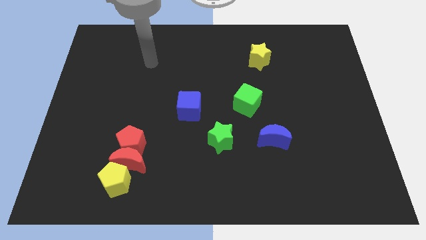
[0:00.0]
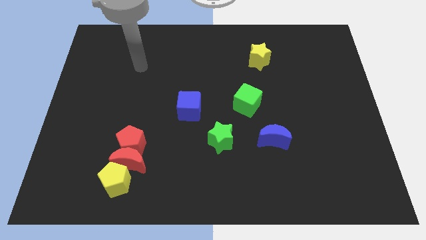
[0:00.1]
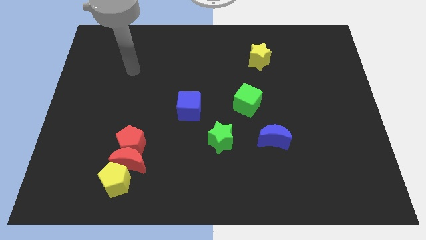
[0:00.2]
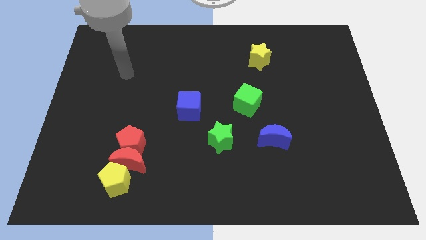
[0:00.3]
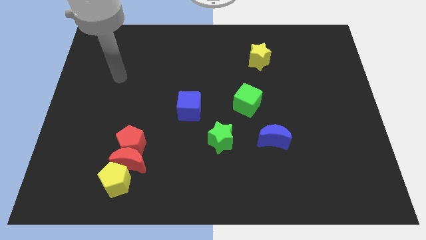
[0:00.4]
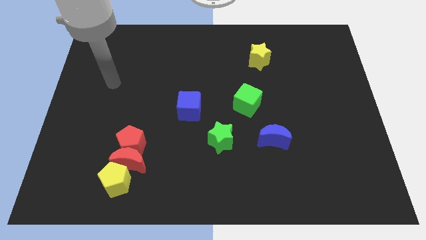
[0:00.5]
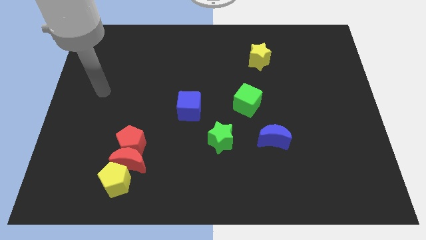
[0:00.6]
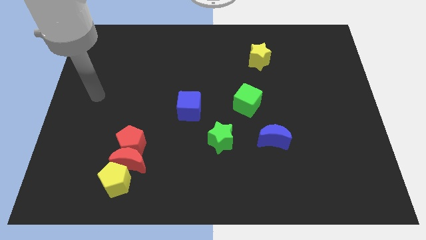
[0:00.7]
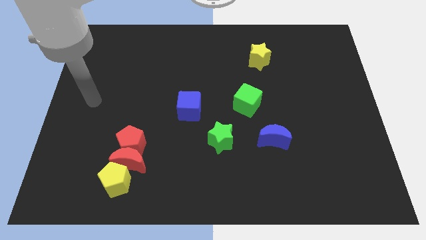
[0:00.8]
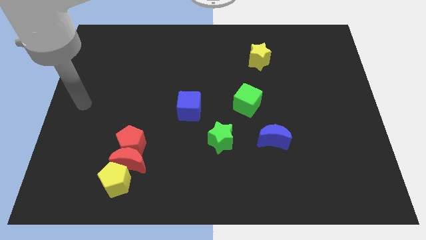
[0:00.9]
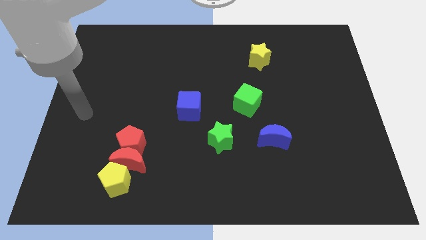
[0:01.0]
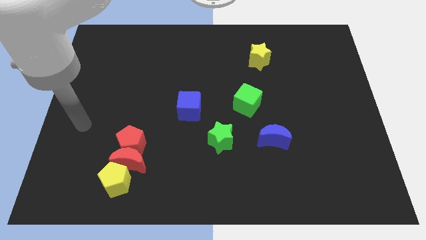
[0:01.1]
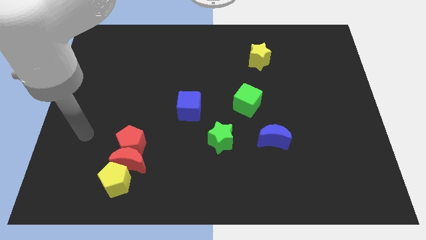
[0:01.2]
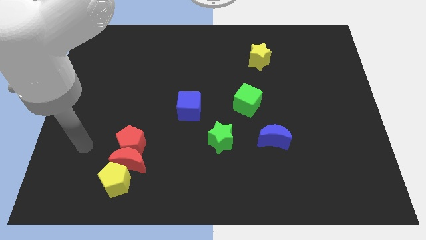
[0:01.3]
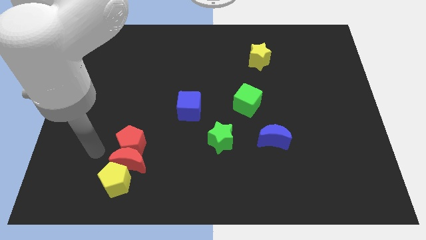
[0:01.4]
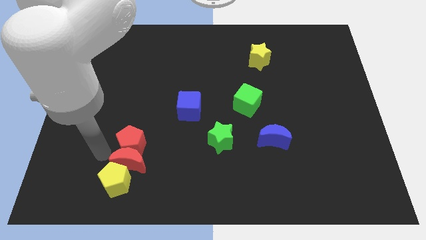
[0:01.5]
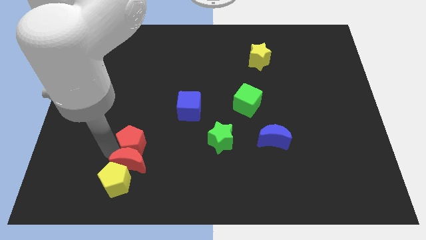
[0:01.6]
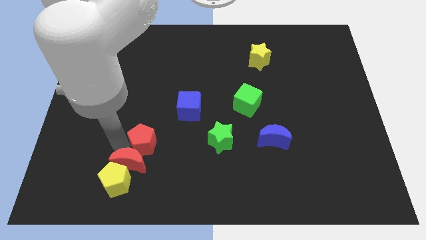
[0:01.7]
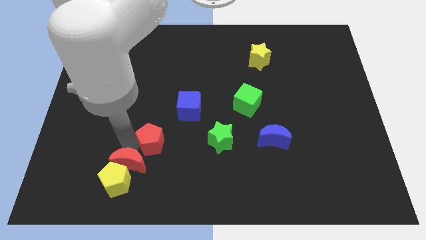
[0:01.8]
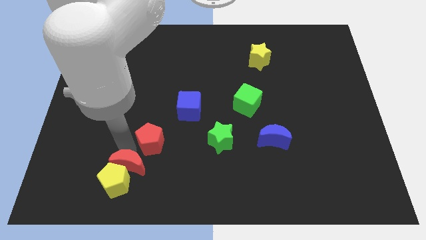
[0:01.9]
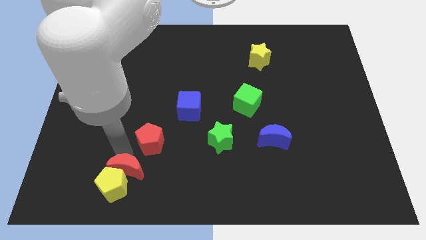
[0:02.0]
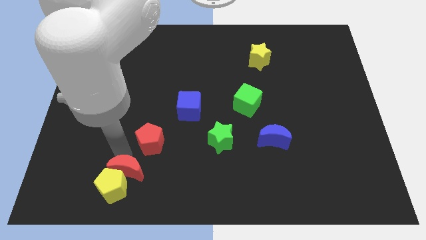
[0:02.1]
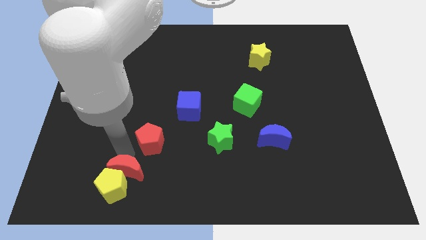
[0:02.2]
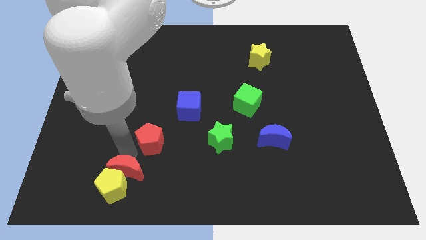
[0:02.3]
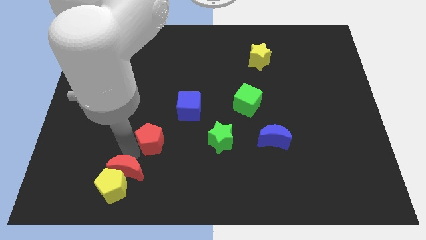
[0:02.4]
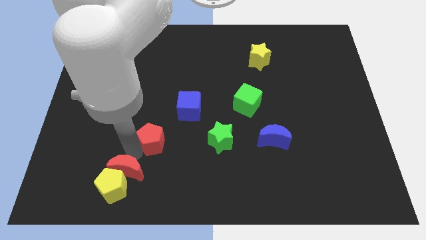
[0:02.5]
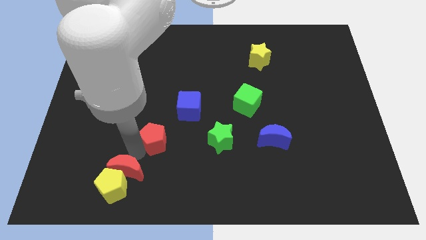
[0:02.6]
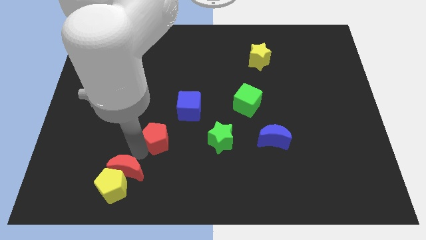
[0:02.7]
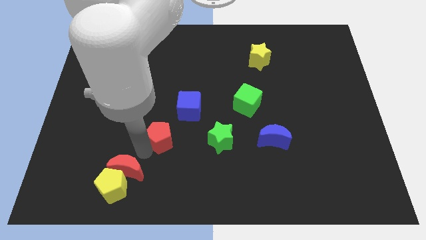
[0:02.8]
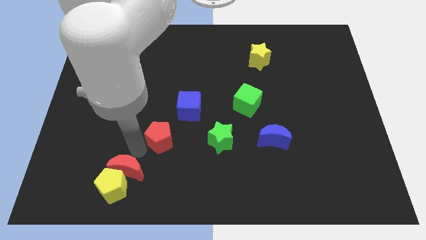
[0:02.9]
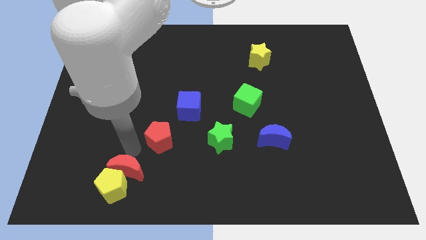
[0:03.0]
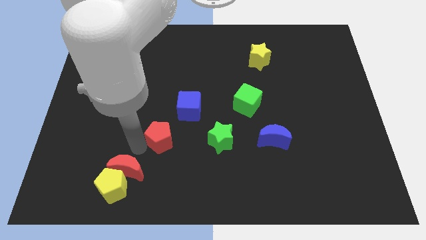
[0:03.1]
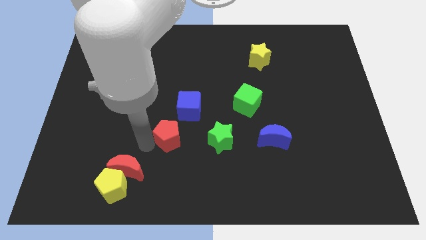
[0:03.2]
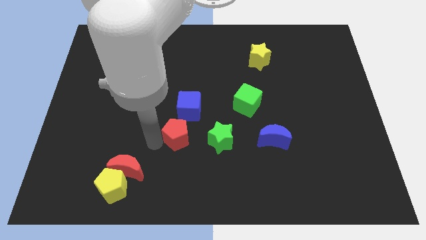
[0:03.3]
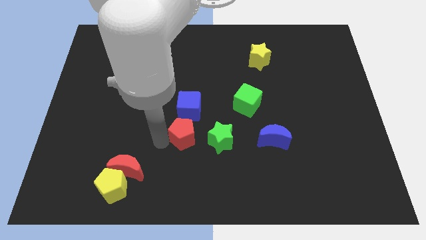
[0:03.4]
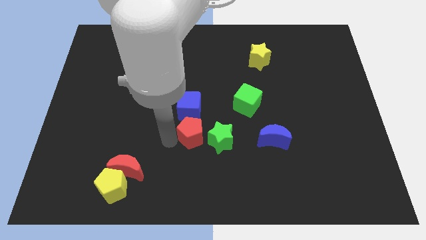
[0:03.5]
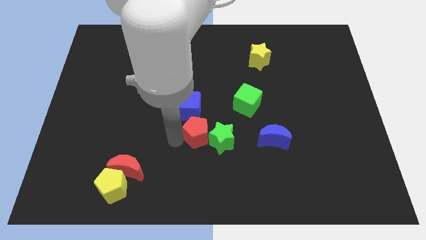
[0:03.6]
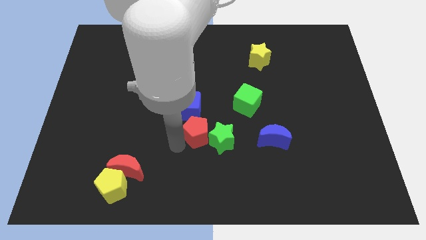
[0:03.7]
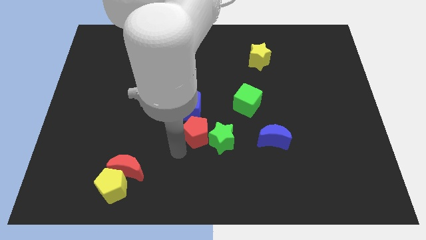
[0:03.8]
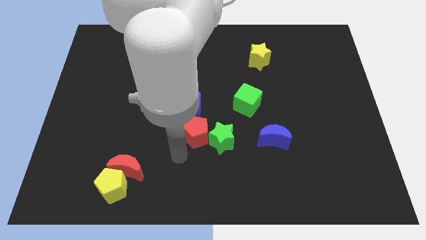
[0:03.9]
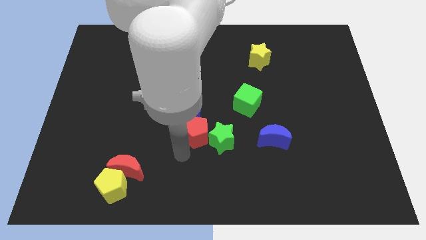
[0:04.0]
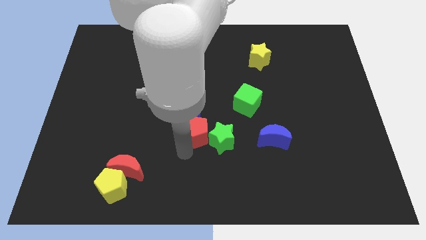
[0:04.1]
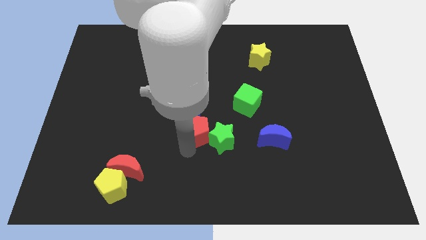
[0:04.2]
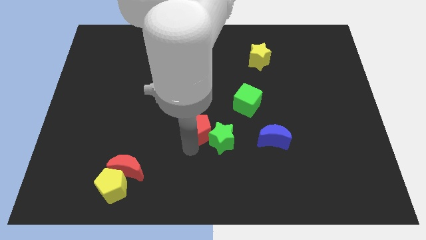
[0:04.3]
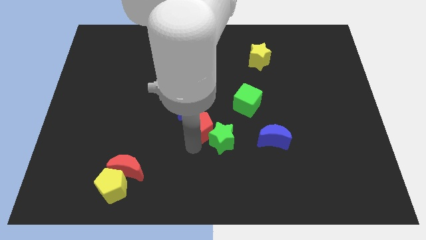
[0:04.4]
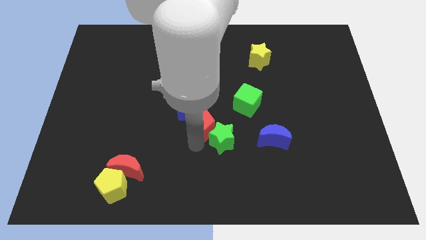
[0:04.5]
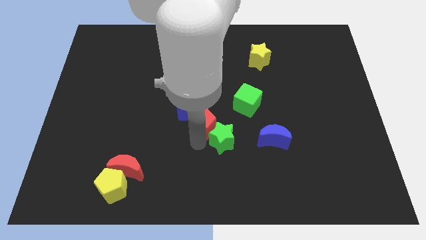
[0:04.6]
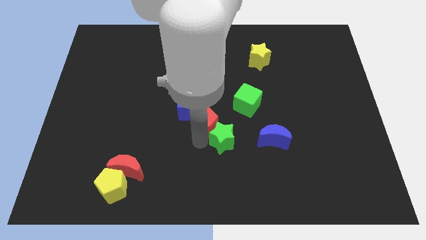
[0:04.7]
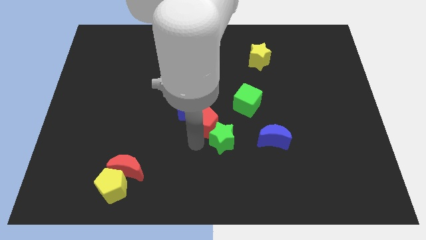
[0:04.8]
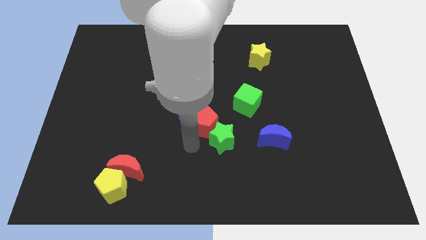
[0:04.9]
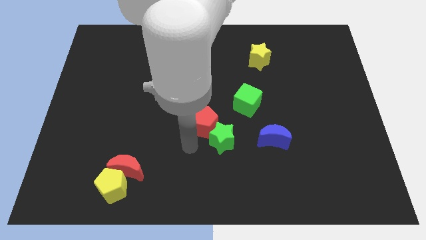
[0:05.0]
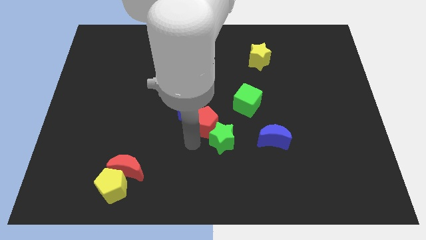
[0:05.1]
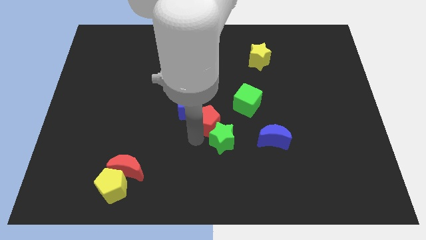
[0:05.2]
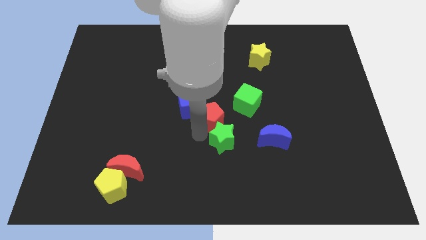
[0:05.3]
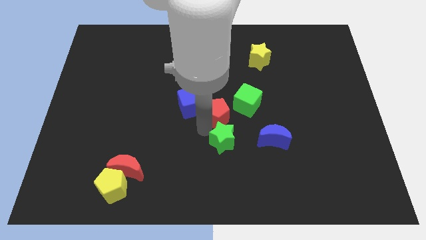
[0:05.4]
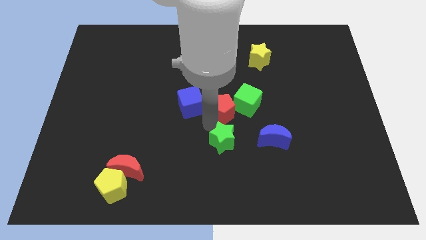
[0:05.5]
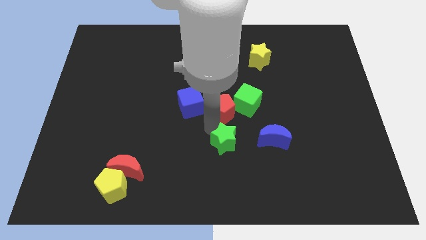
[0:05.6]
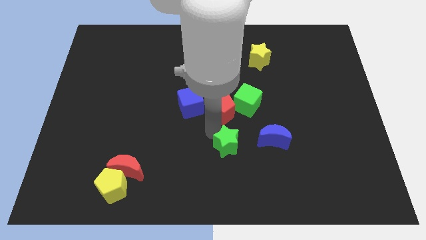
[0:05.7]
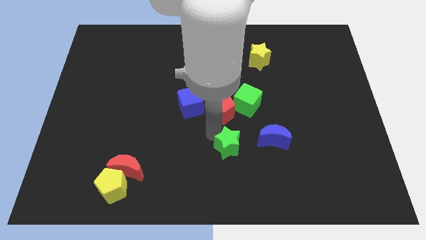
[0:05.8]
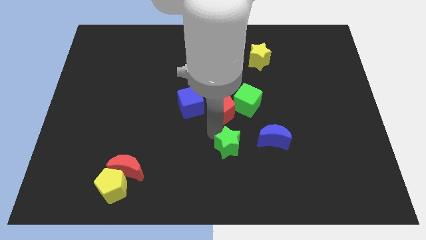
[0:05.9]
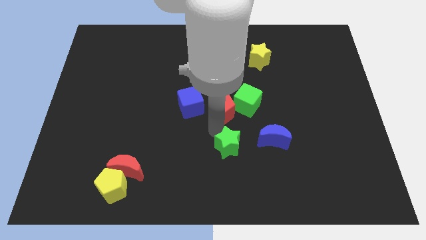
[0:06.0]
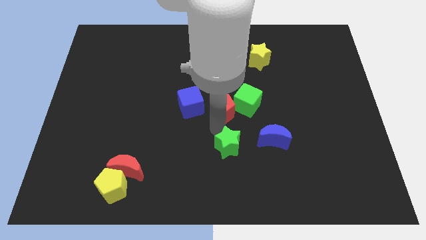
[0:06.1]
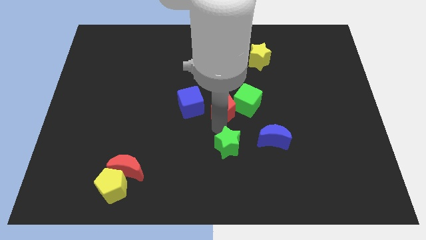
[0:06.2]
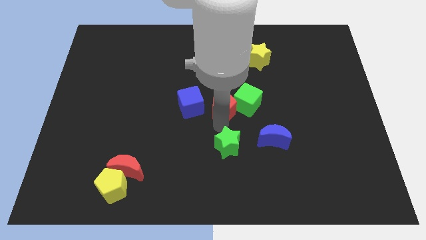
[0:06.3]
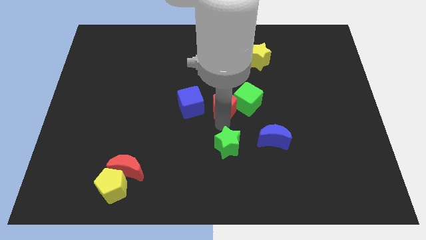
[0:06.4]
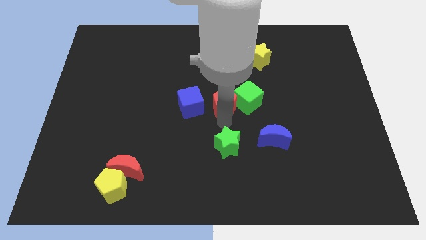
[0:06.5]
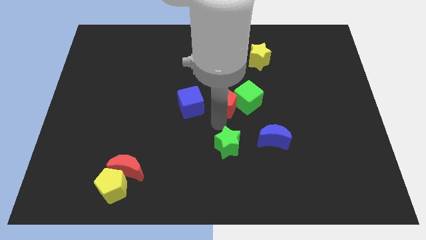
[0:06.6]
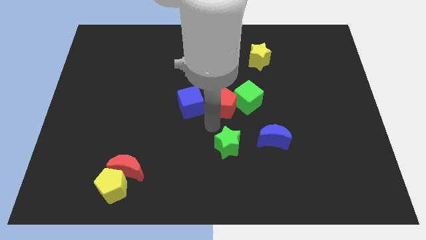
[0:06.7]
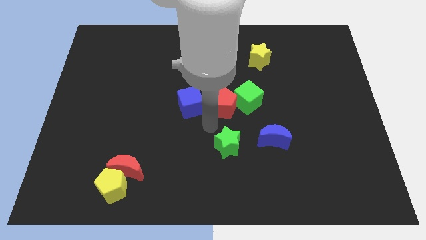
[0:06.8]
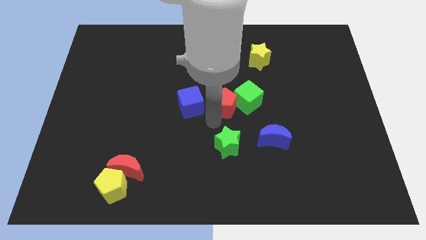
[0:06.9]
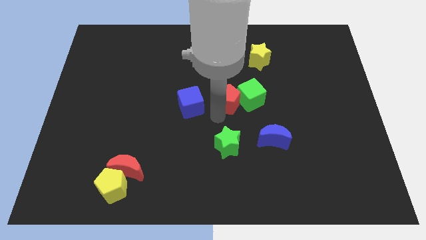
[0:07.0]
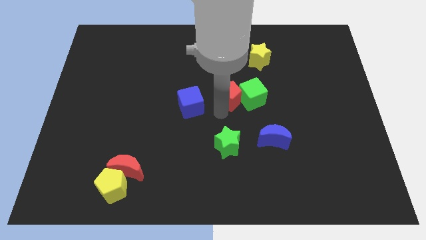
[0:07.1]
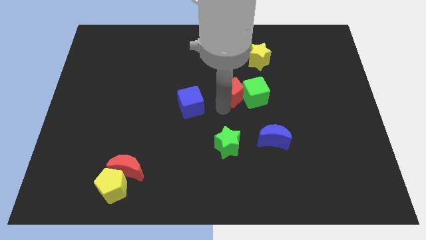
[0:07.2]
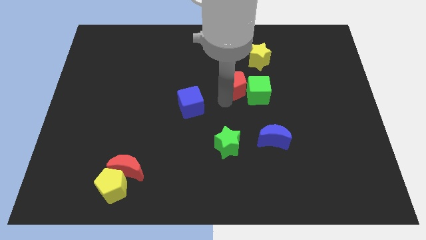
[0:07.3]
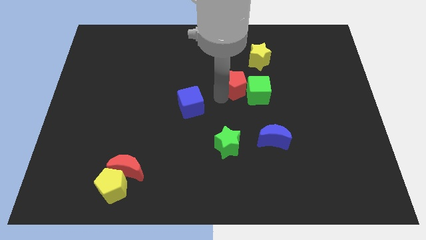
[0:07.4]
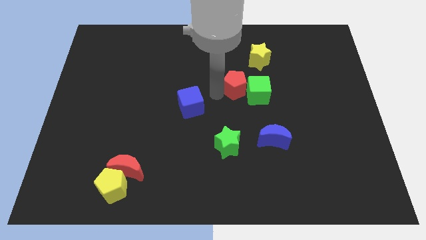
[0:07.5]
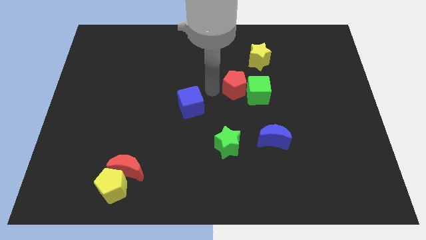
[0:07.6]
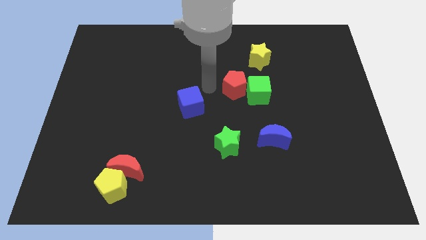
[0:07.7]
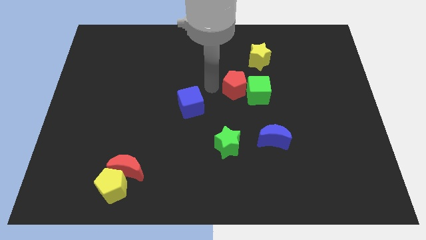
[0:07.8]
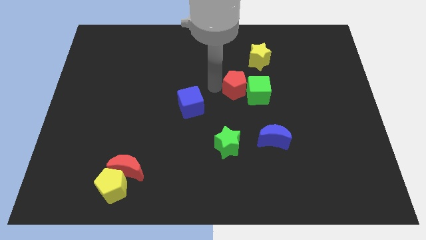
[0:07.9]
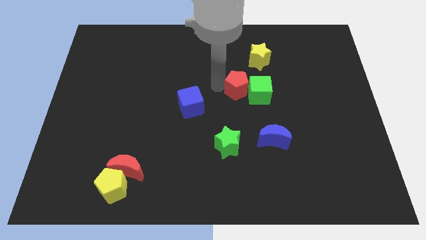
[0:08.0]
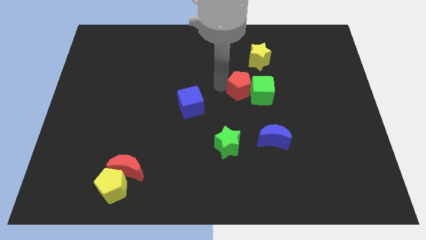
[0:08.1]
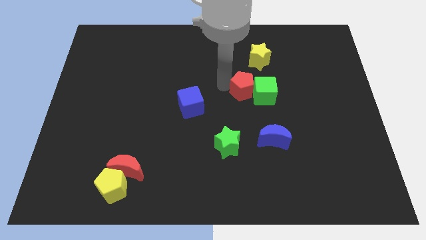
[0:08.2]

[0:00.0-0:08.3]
put the red pentagon to the bottom side of the yellow star
